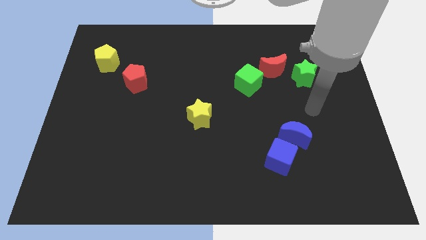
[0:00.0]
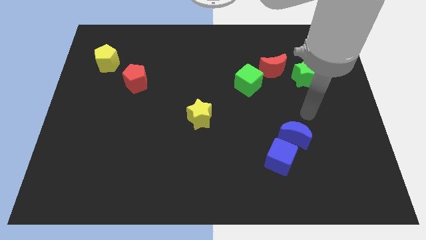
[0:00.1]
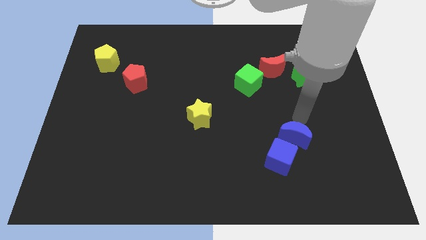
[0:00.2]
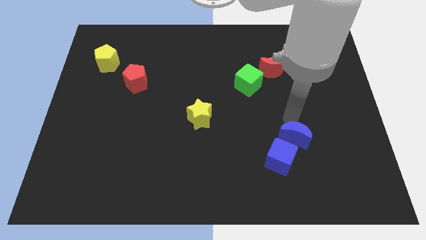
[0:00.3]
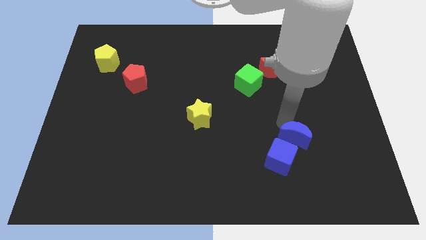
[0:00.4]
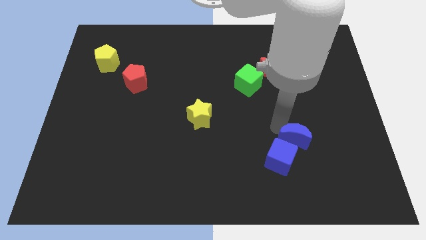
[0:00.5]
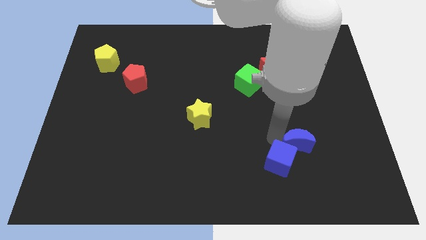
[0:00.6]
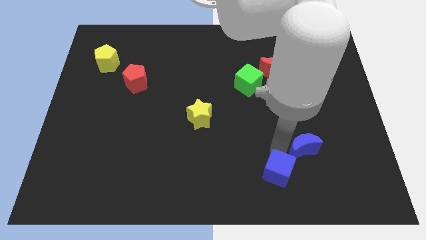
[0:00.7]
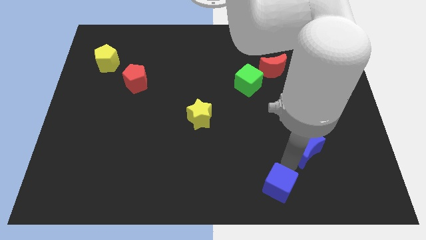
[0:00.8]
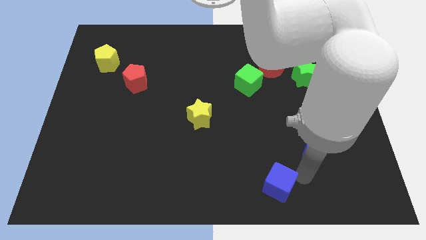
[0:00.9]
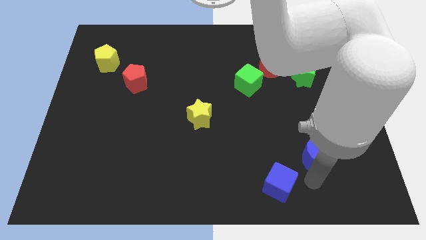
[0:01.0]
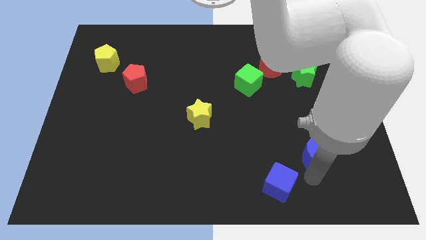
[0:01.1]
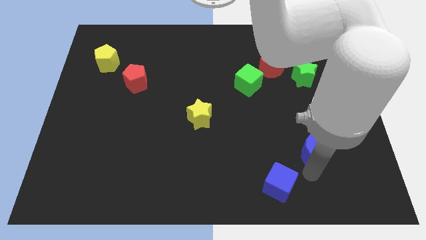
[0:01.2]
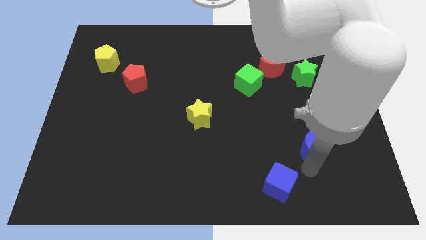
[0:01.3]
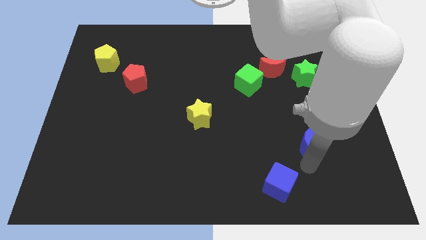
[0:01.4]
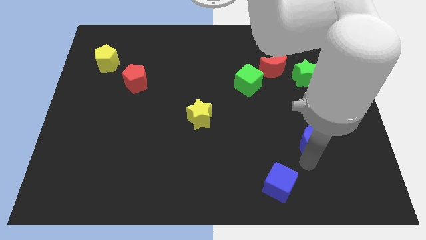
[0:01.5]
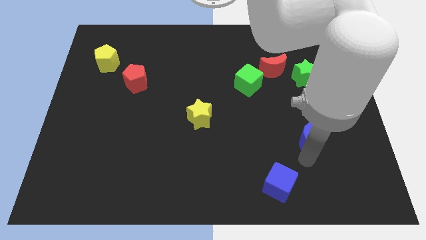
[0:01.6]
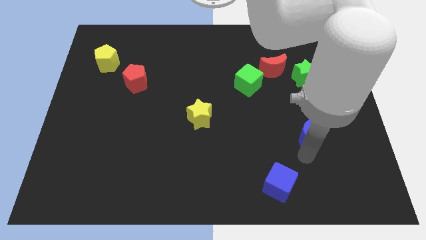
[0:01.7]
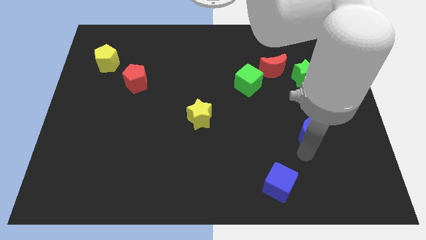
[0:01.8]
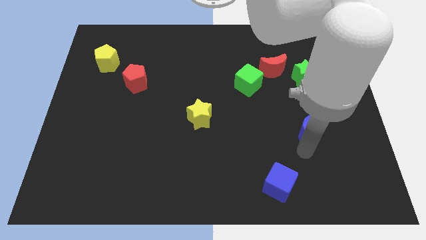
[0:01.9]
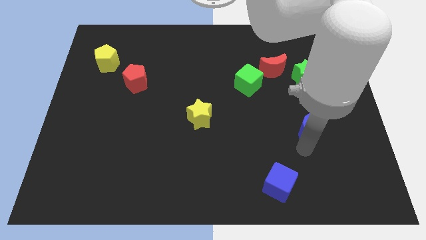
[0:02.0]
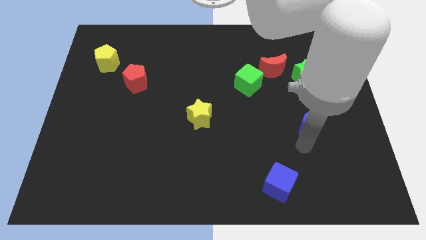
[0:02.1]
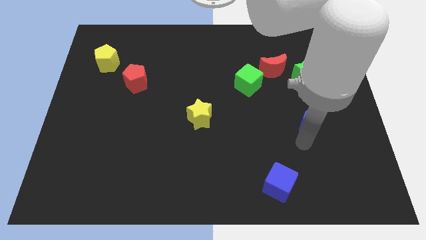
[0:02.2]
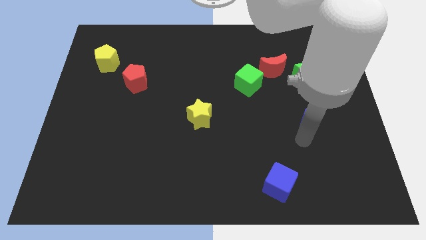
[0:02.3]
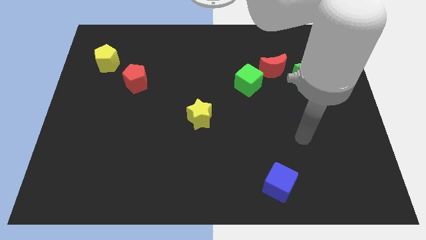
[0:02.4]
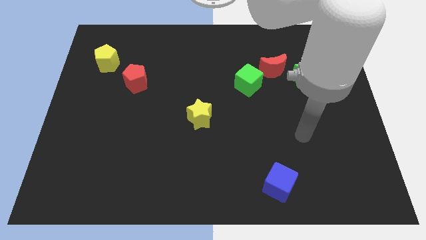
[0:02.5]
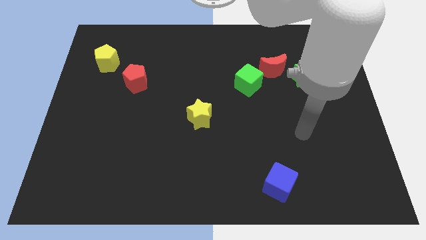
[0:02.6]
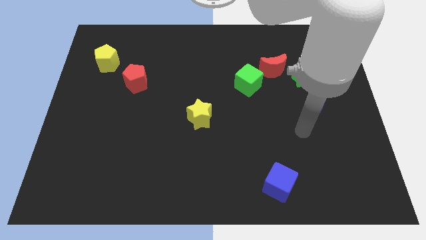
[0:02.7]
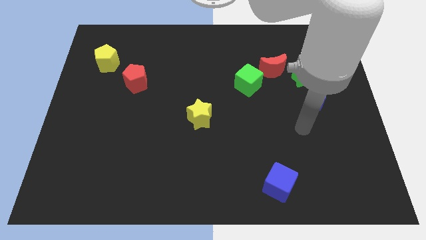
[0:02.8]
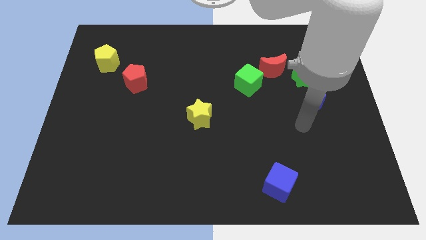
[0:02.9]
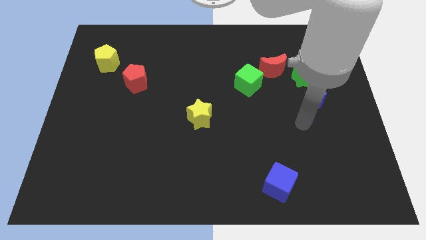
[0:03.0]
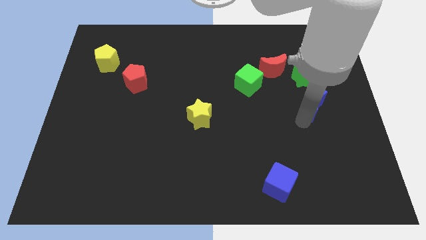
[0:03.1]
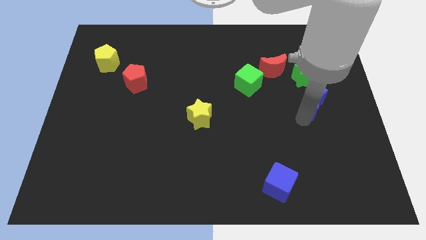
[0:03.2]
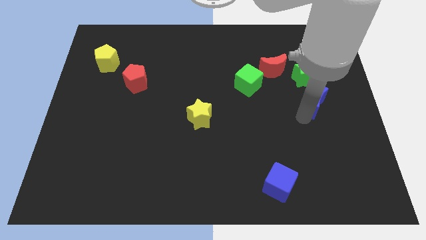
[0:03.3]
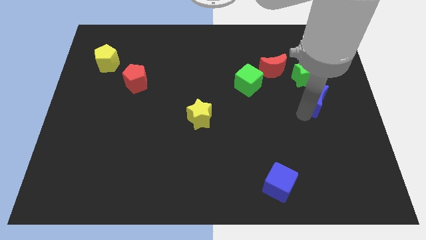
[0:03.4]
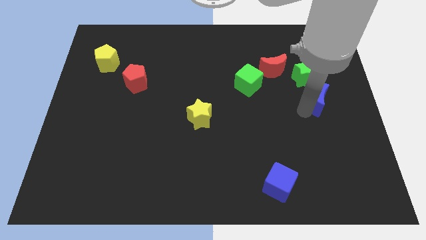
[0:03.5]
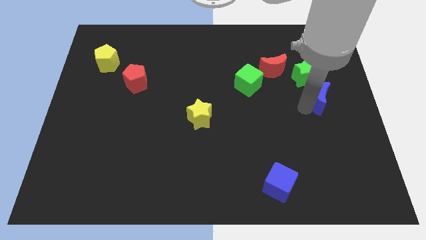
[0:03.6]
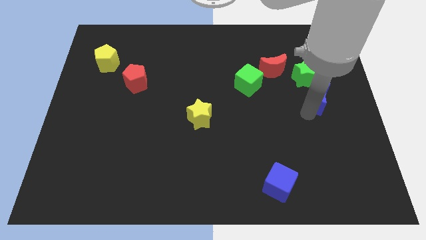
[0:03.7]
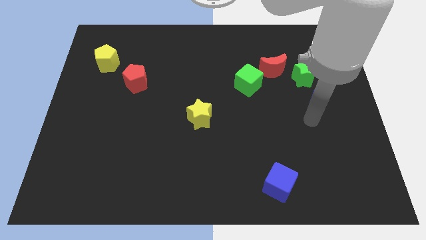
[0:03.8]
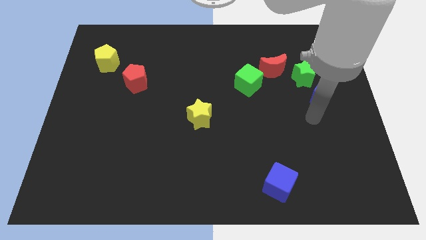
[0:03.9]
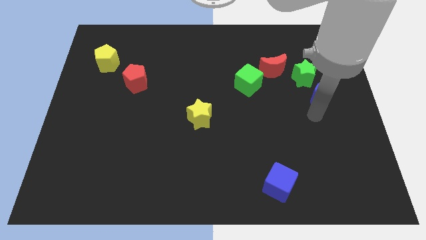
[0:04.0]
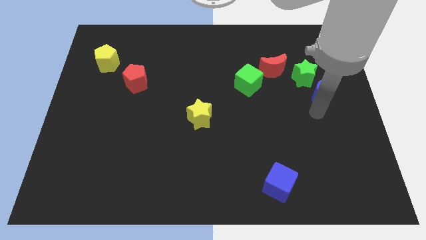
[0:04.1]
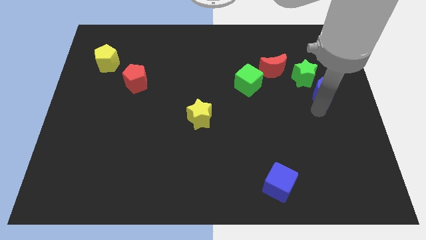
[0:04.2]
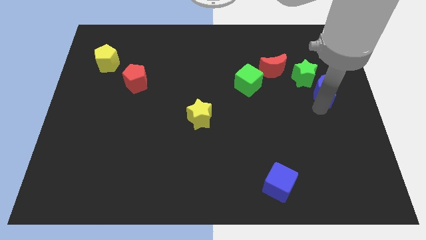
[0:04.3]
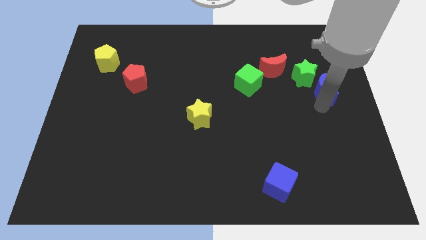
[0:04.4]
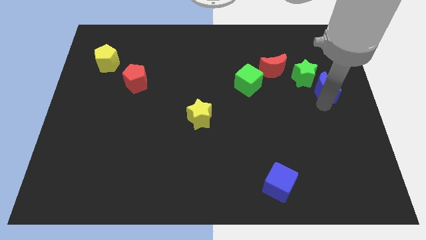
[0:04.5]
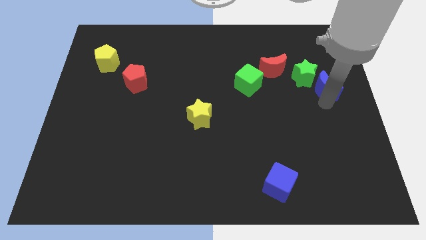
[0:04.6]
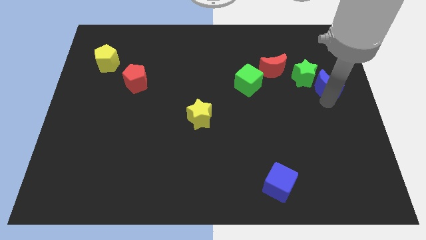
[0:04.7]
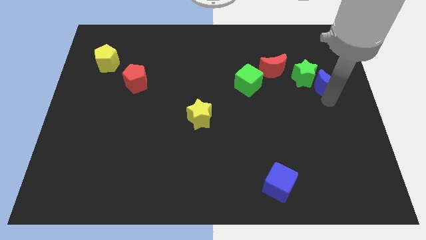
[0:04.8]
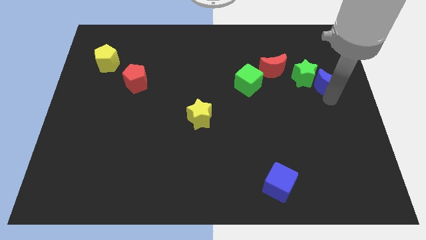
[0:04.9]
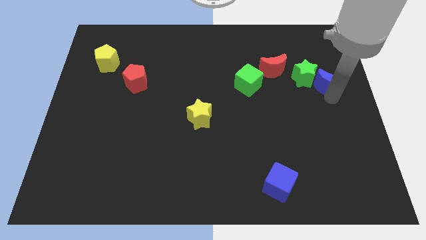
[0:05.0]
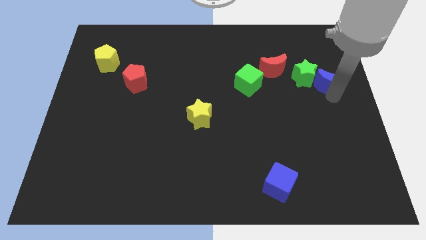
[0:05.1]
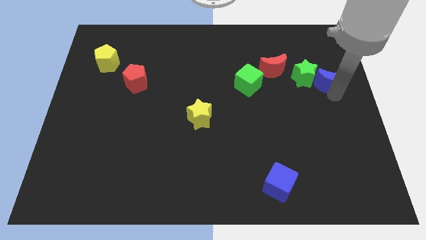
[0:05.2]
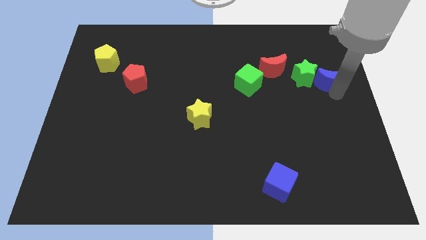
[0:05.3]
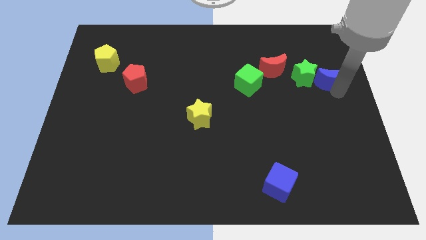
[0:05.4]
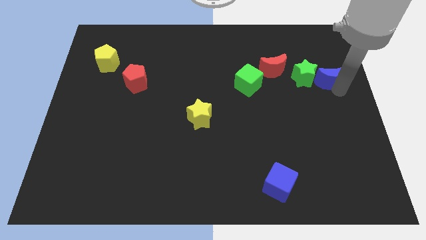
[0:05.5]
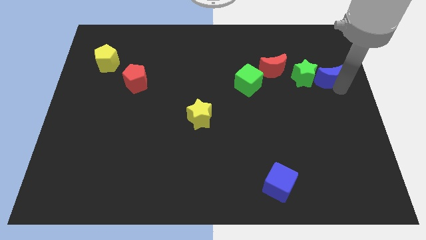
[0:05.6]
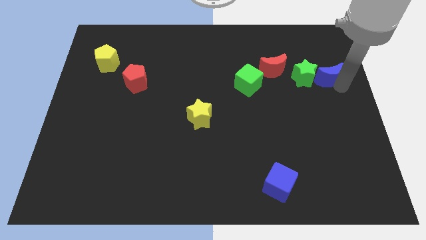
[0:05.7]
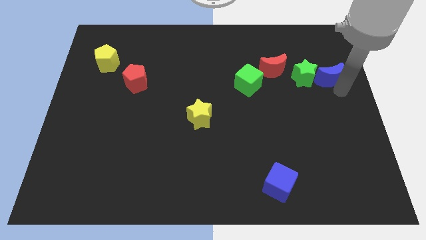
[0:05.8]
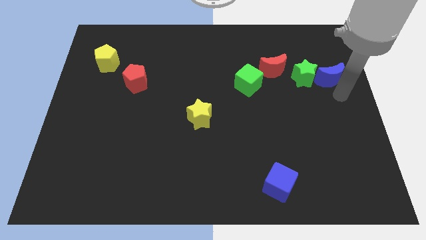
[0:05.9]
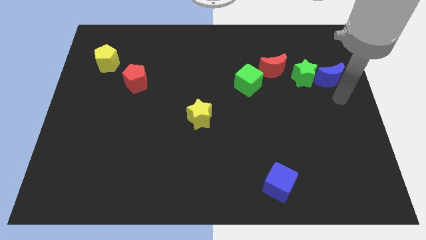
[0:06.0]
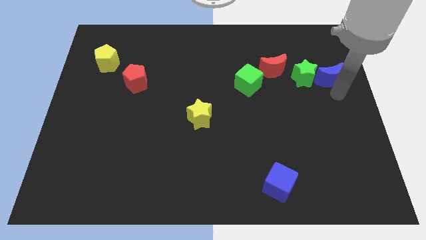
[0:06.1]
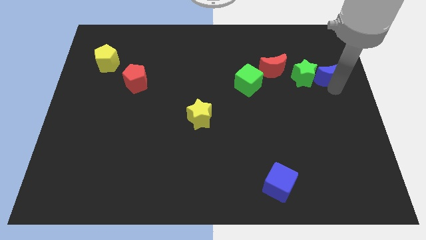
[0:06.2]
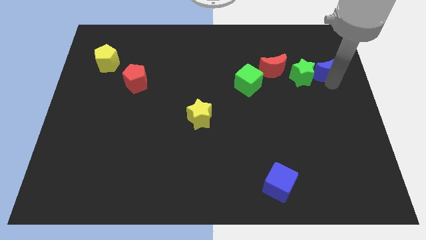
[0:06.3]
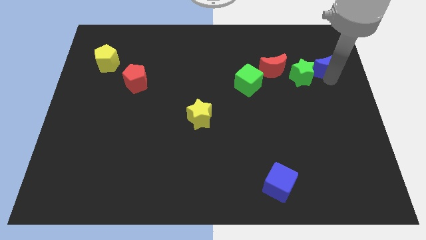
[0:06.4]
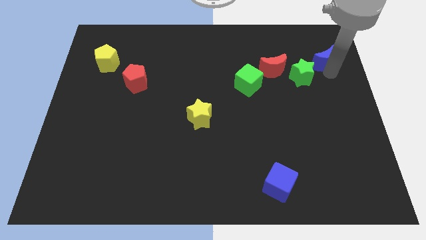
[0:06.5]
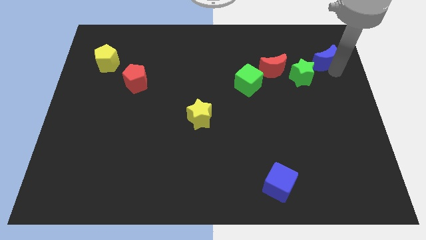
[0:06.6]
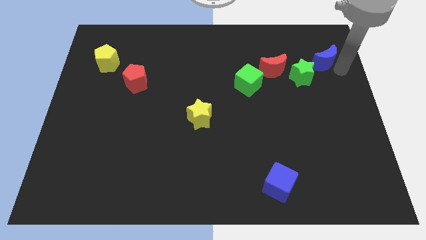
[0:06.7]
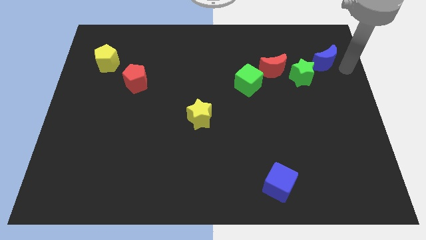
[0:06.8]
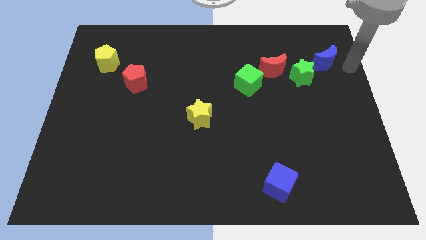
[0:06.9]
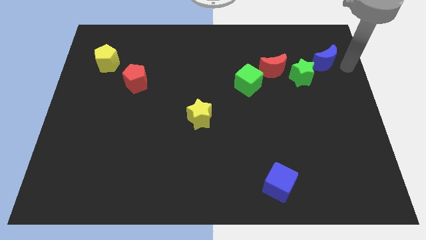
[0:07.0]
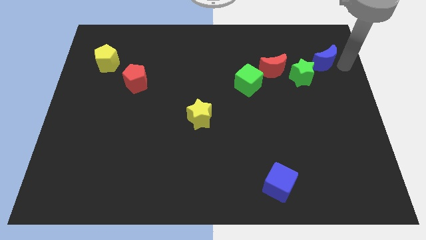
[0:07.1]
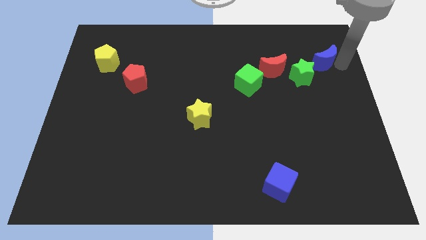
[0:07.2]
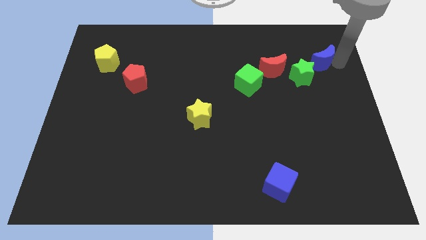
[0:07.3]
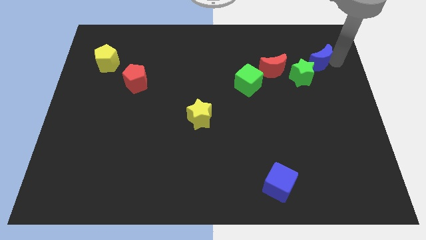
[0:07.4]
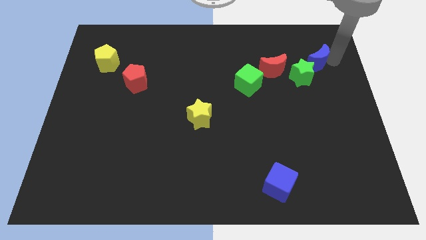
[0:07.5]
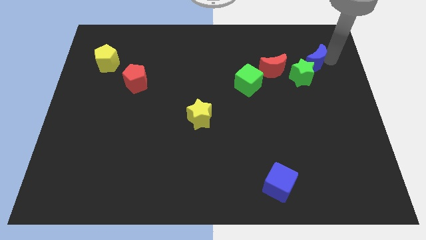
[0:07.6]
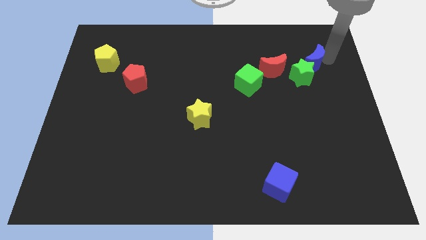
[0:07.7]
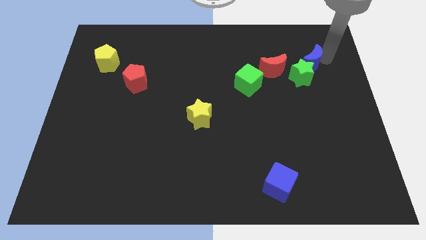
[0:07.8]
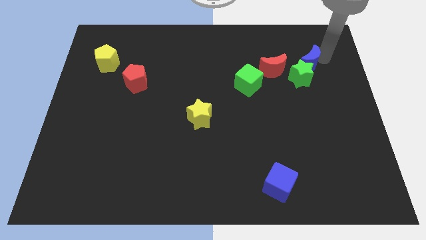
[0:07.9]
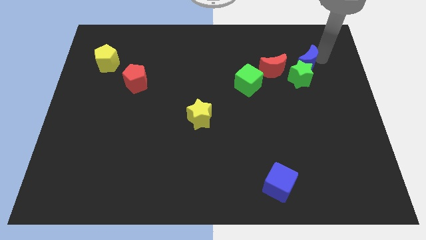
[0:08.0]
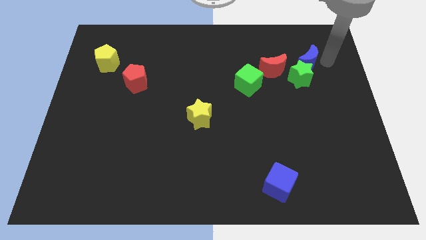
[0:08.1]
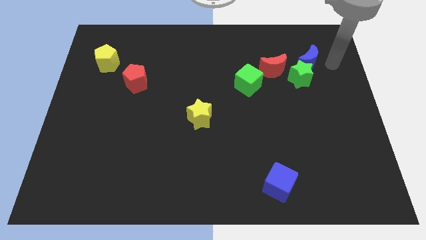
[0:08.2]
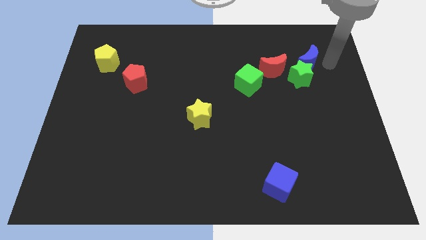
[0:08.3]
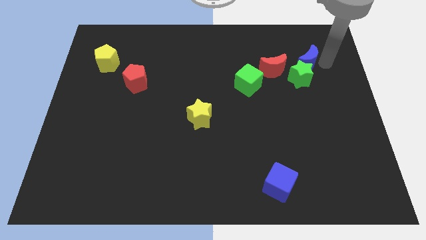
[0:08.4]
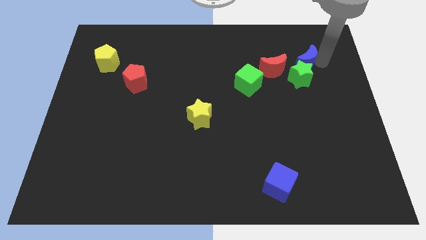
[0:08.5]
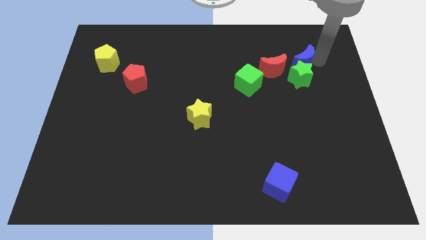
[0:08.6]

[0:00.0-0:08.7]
push the blue moon diagonally up and to the left of the green star
